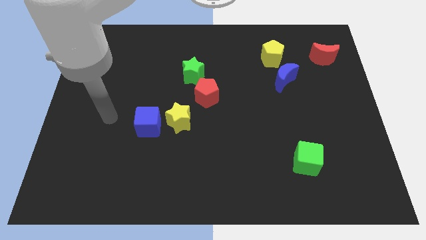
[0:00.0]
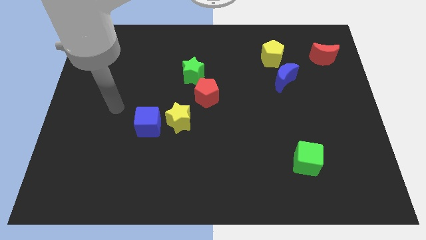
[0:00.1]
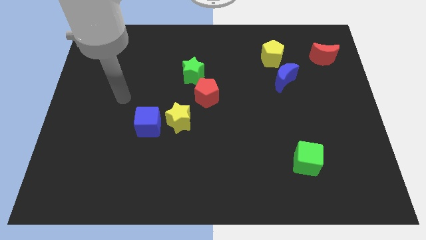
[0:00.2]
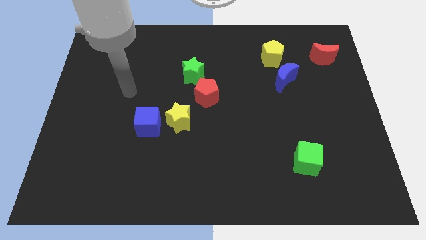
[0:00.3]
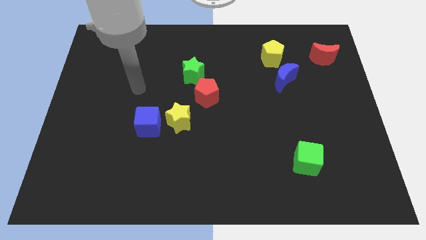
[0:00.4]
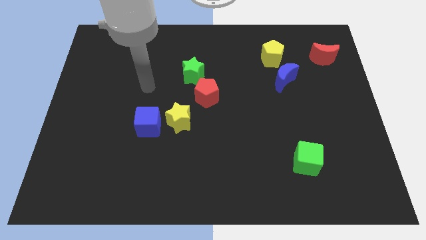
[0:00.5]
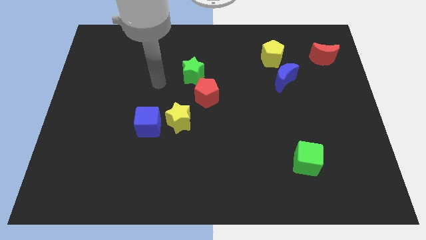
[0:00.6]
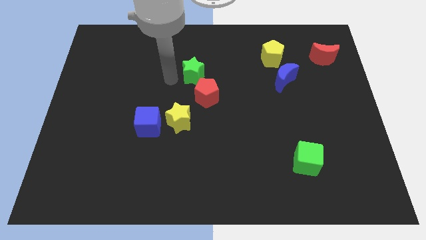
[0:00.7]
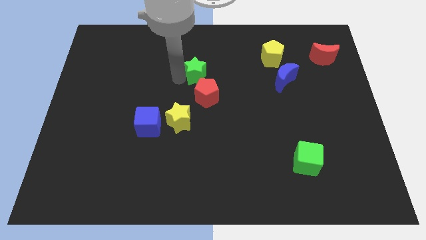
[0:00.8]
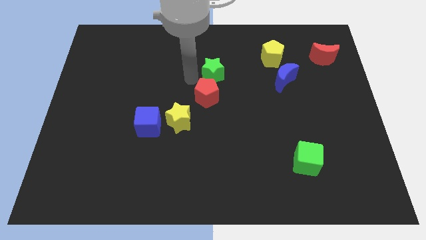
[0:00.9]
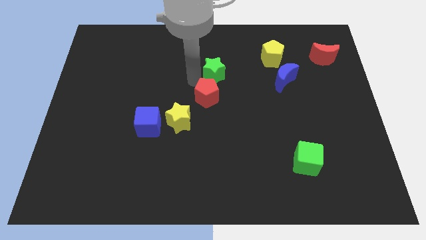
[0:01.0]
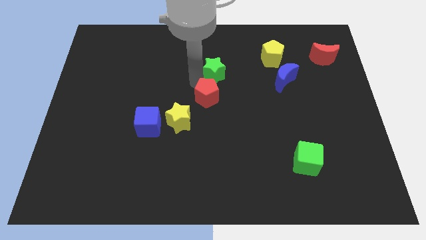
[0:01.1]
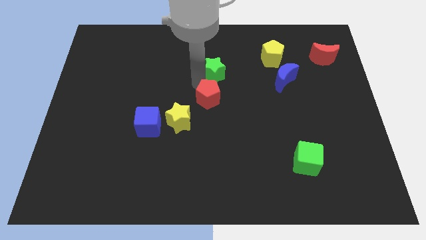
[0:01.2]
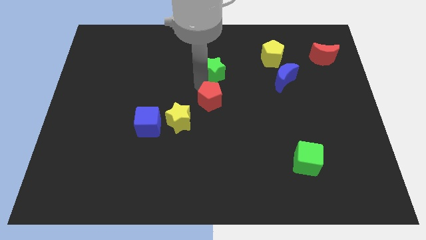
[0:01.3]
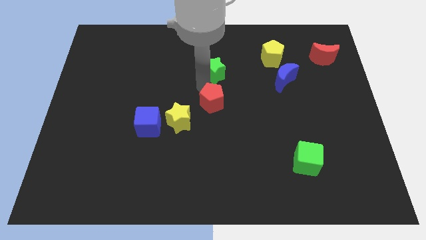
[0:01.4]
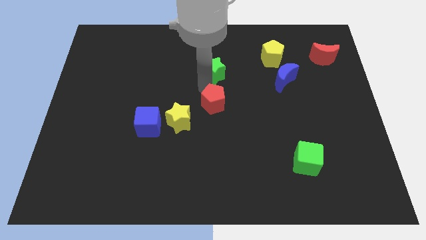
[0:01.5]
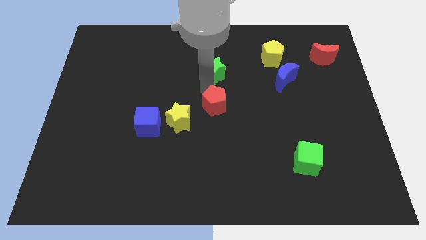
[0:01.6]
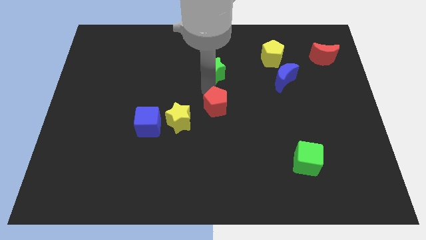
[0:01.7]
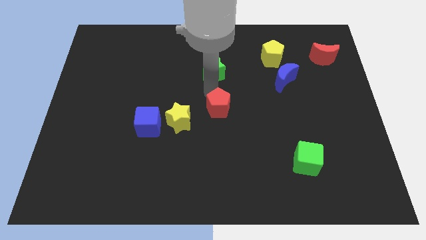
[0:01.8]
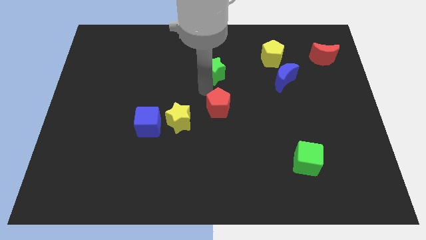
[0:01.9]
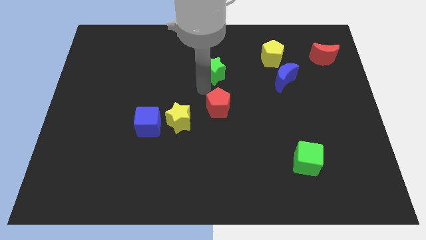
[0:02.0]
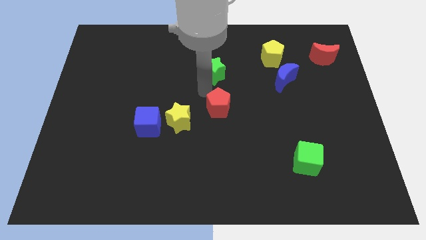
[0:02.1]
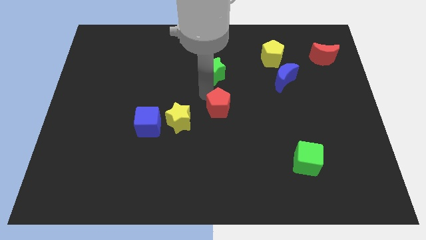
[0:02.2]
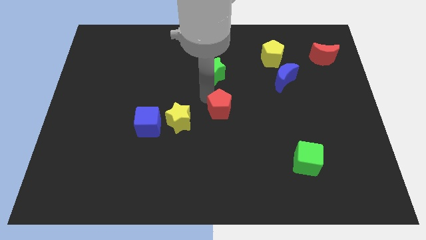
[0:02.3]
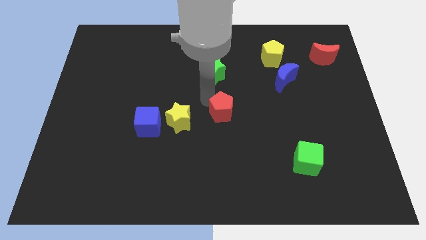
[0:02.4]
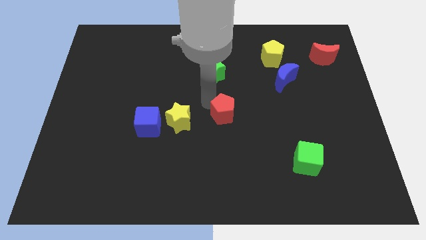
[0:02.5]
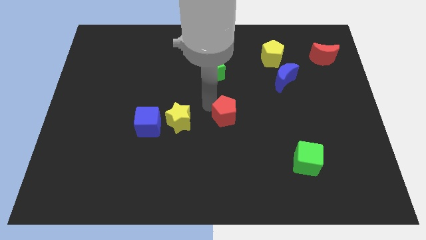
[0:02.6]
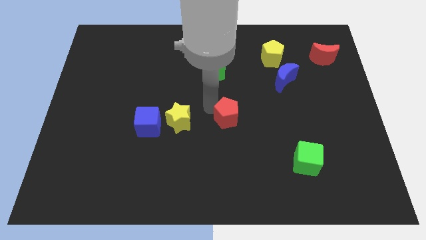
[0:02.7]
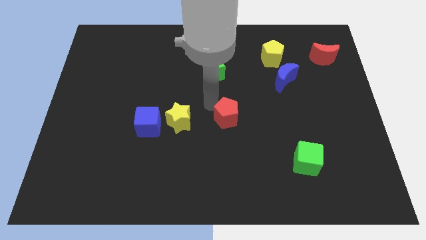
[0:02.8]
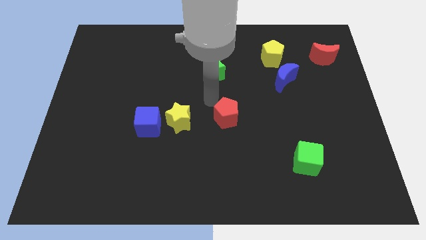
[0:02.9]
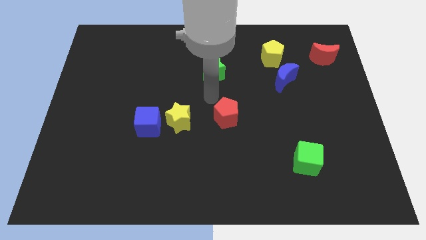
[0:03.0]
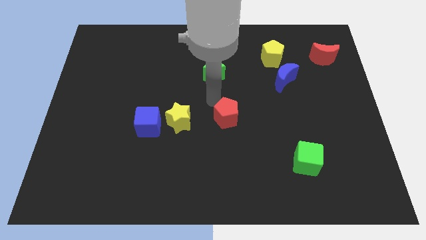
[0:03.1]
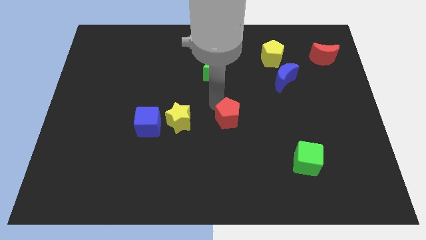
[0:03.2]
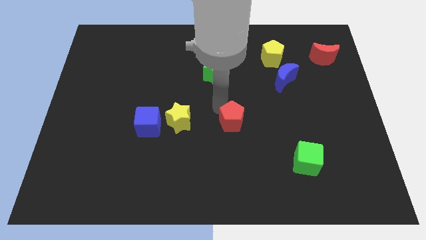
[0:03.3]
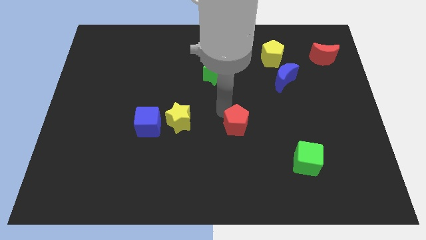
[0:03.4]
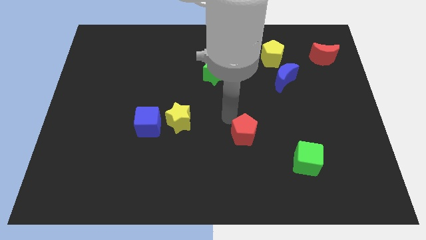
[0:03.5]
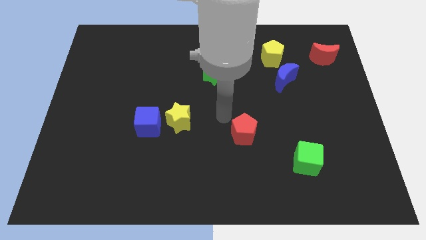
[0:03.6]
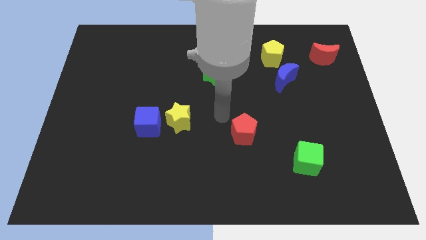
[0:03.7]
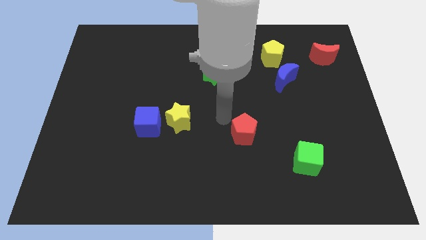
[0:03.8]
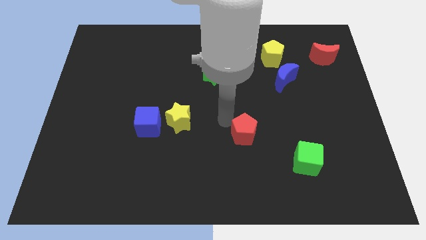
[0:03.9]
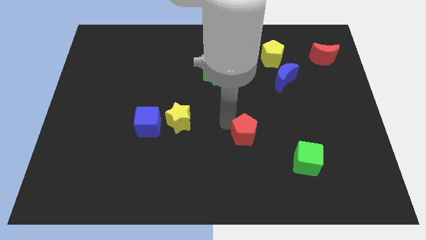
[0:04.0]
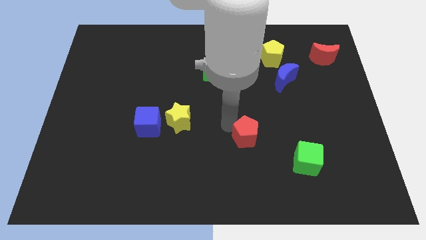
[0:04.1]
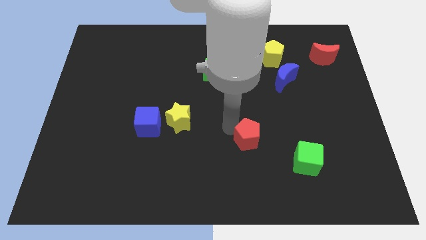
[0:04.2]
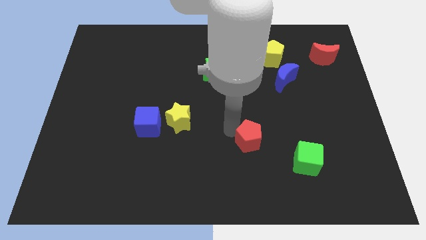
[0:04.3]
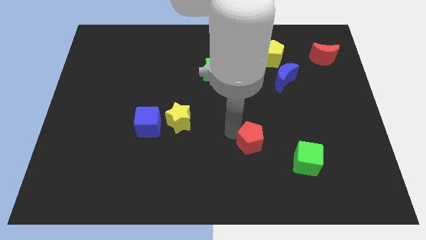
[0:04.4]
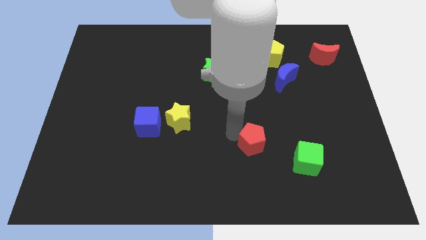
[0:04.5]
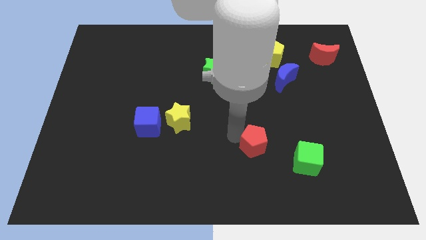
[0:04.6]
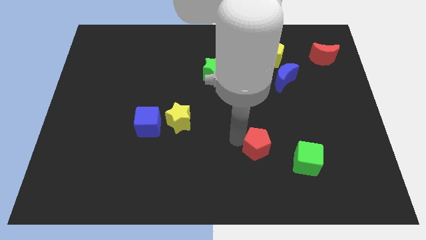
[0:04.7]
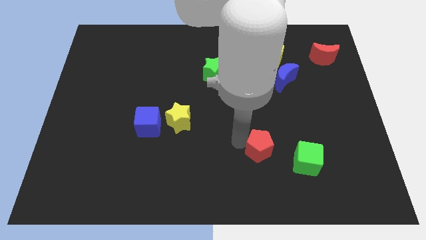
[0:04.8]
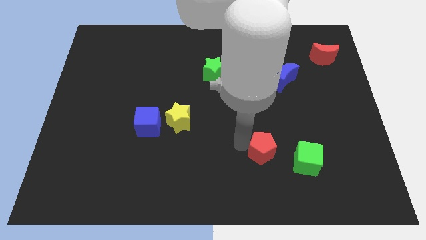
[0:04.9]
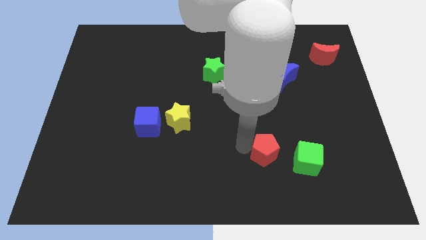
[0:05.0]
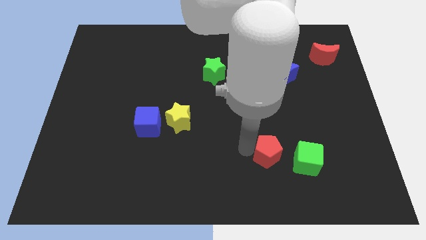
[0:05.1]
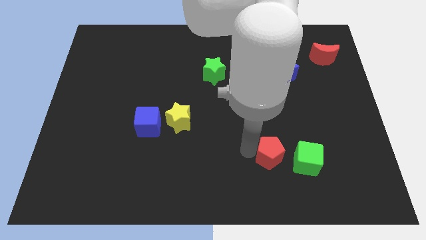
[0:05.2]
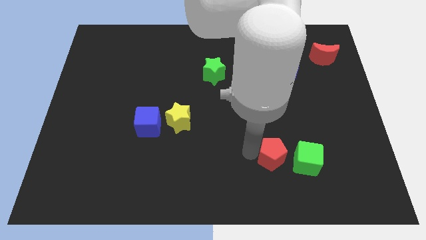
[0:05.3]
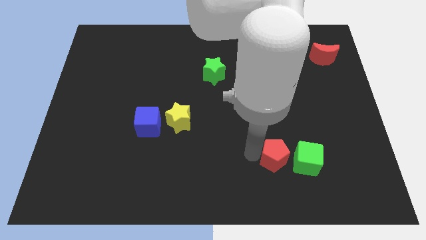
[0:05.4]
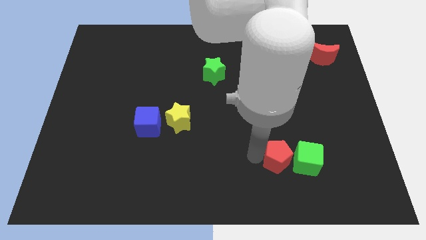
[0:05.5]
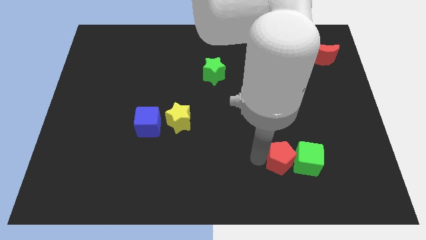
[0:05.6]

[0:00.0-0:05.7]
push the red pentagon to the green cube

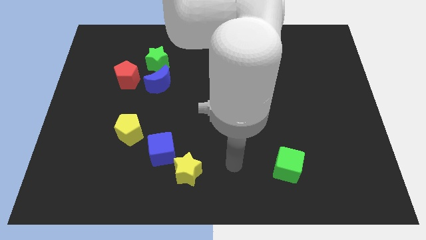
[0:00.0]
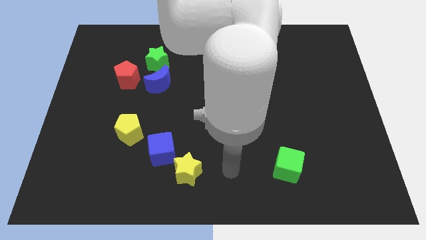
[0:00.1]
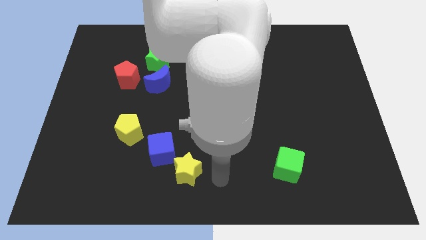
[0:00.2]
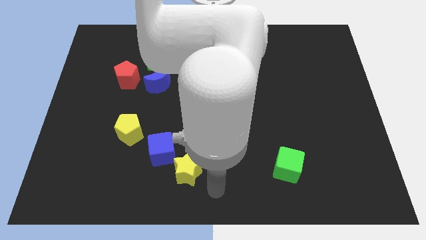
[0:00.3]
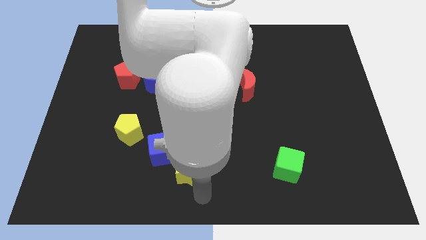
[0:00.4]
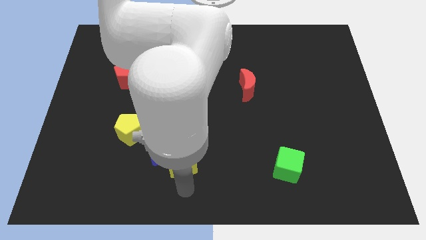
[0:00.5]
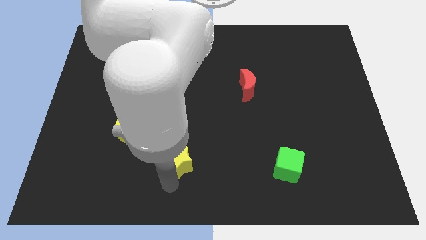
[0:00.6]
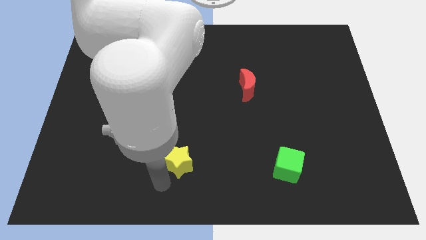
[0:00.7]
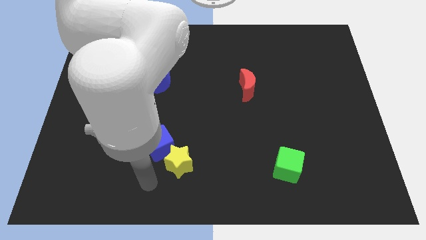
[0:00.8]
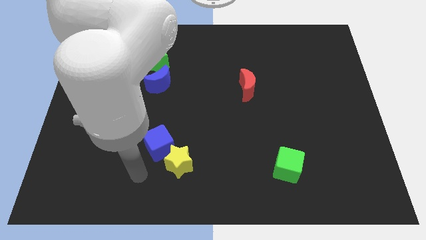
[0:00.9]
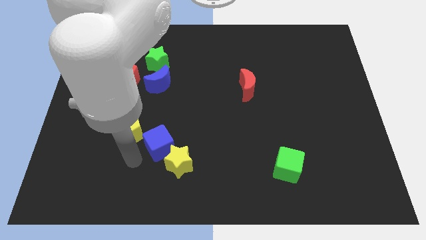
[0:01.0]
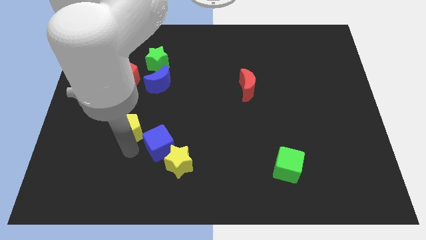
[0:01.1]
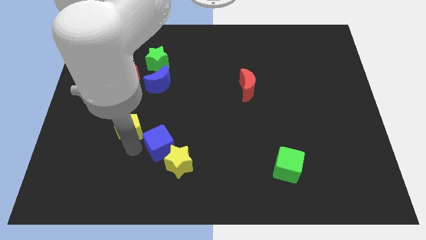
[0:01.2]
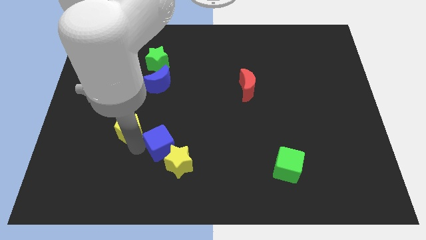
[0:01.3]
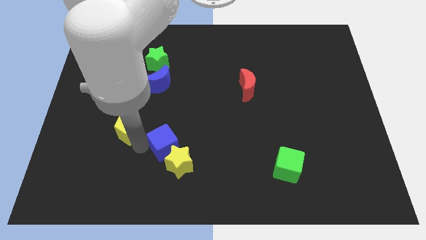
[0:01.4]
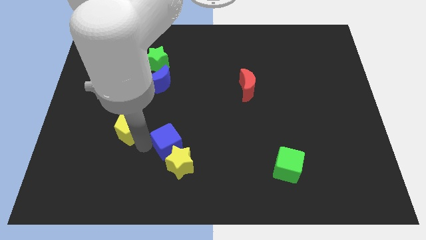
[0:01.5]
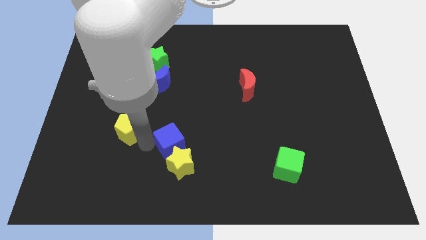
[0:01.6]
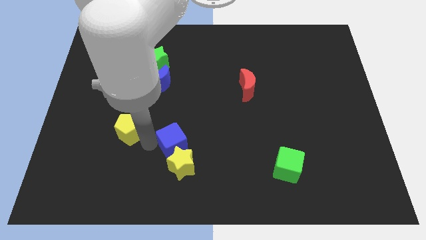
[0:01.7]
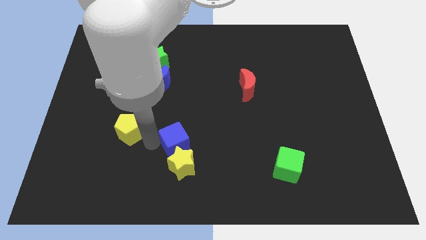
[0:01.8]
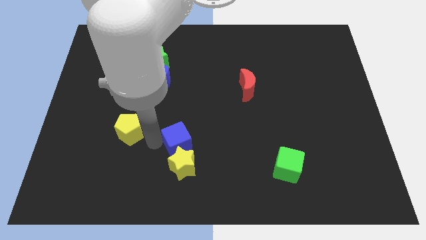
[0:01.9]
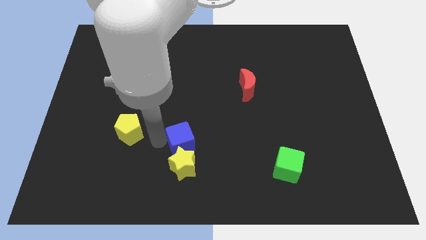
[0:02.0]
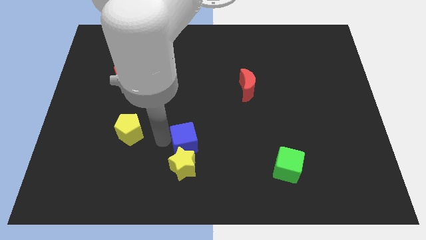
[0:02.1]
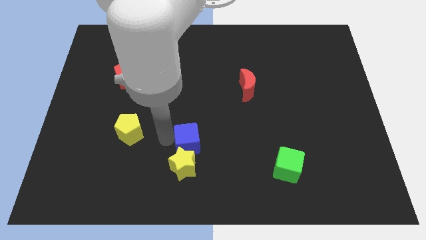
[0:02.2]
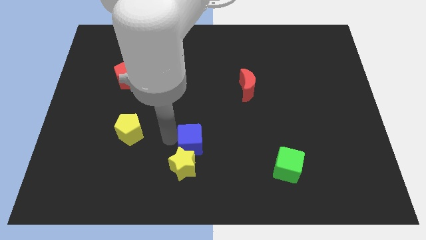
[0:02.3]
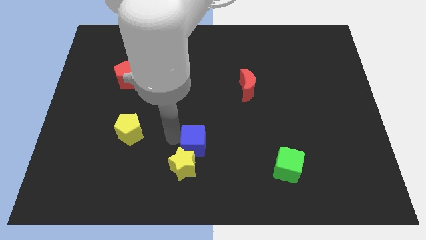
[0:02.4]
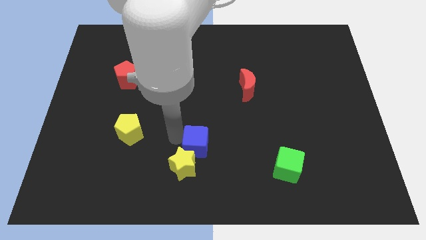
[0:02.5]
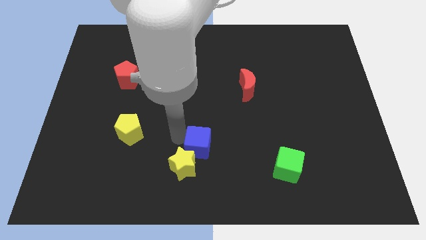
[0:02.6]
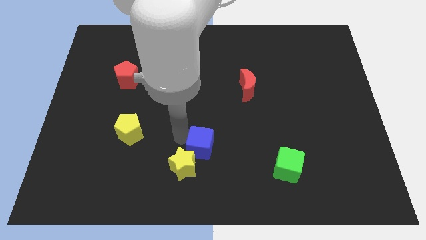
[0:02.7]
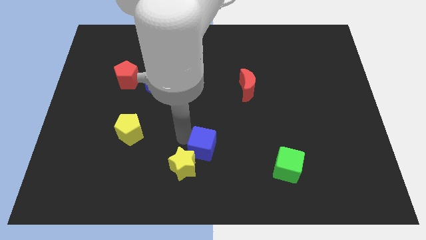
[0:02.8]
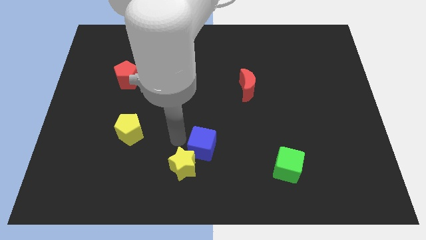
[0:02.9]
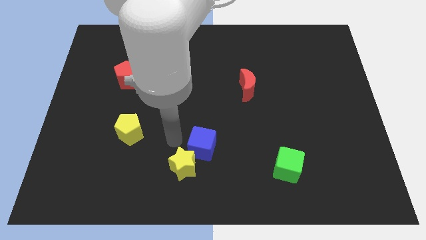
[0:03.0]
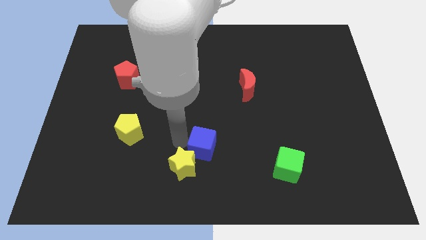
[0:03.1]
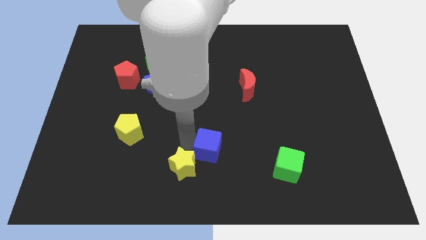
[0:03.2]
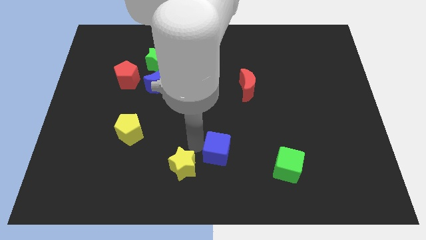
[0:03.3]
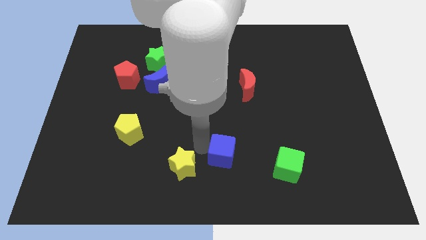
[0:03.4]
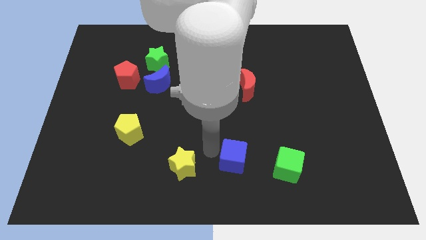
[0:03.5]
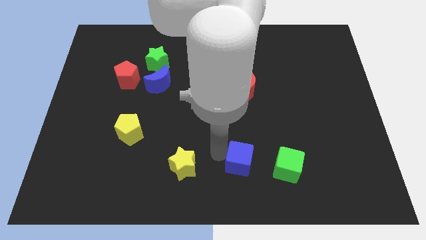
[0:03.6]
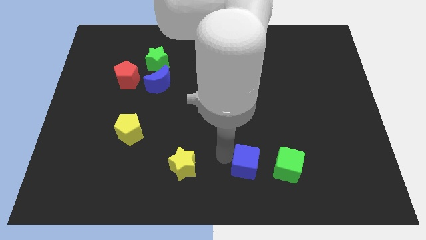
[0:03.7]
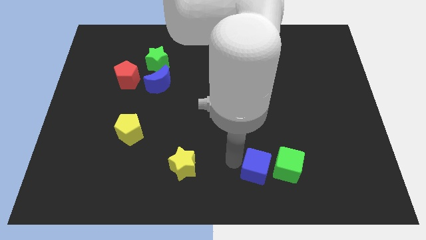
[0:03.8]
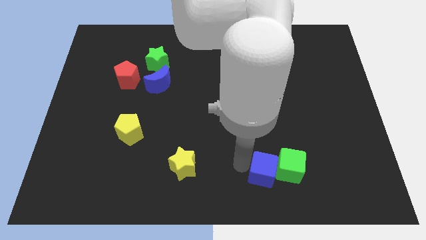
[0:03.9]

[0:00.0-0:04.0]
push the blue cube towards the green cube
